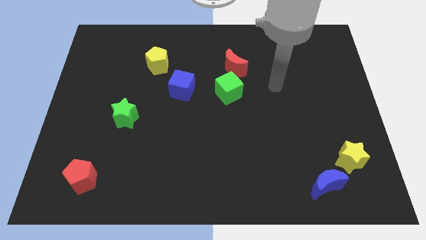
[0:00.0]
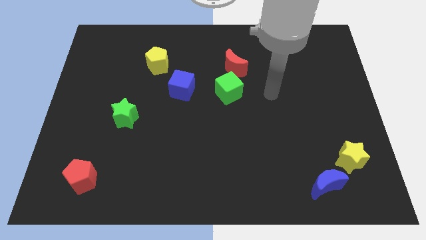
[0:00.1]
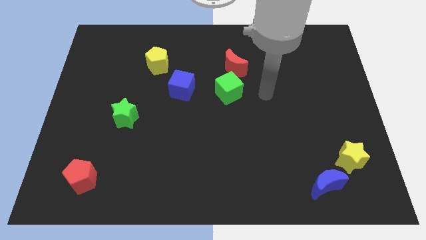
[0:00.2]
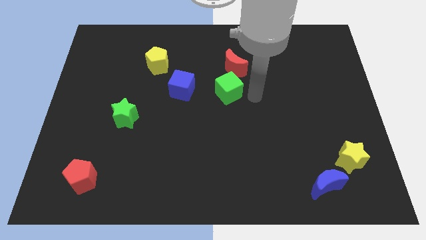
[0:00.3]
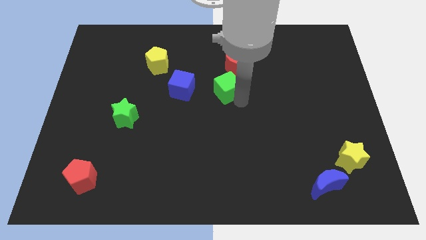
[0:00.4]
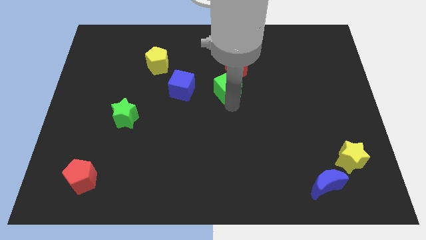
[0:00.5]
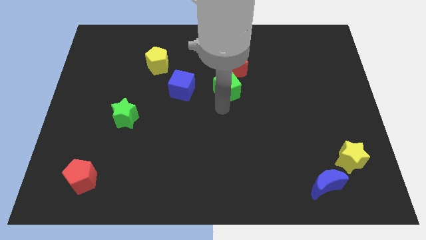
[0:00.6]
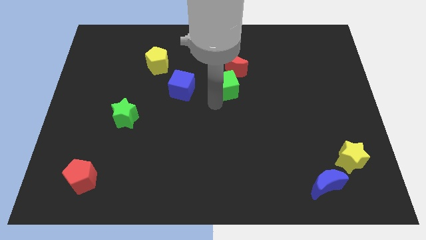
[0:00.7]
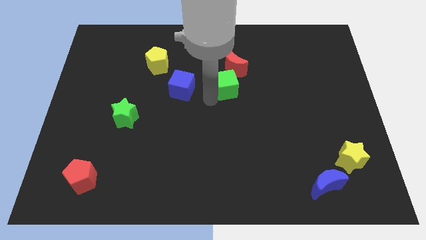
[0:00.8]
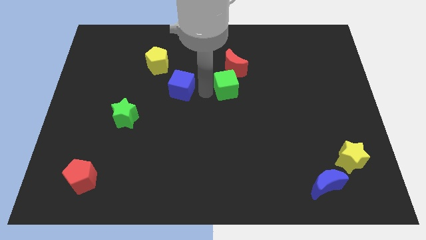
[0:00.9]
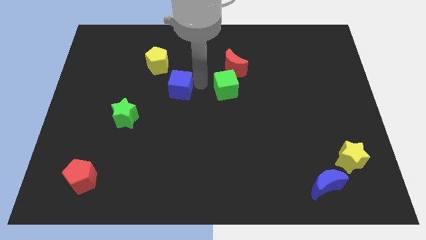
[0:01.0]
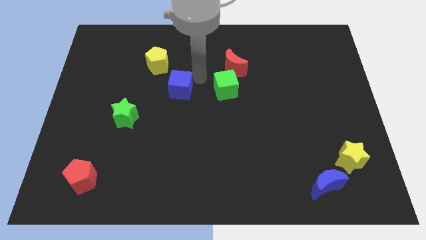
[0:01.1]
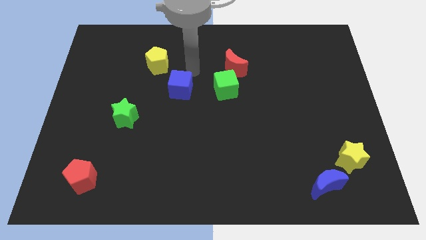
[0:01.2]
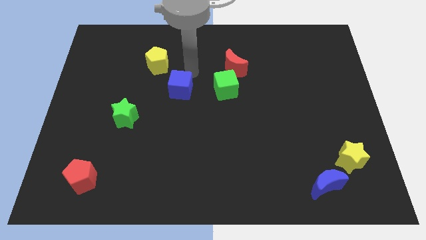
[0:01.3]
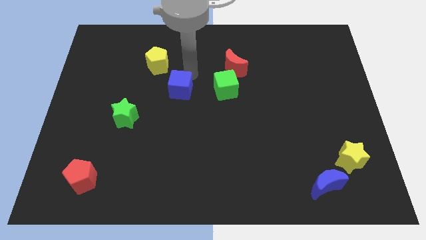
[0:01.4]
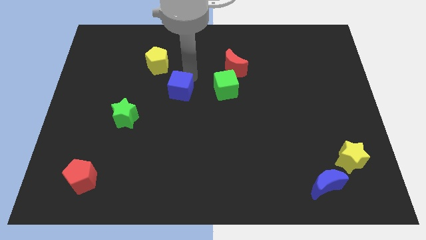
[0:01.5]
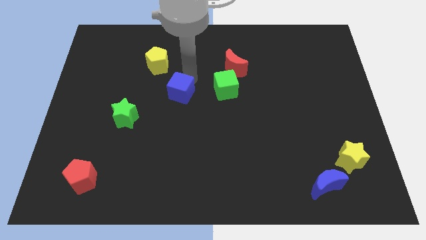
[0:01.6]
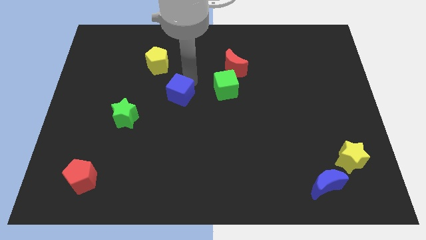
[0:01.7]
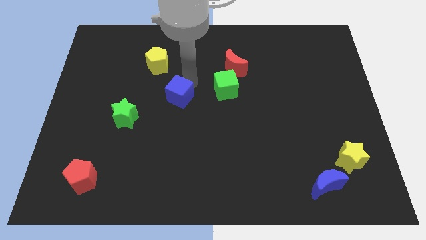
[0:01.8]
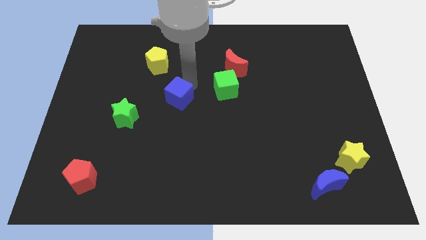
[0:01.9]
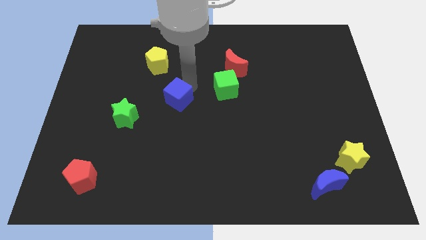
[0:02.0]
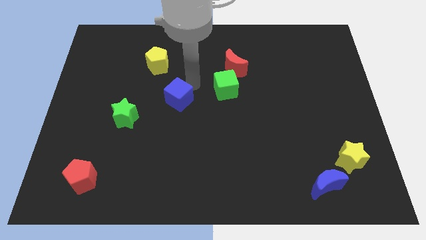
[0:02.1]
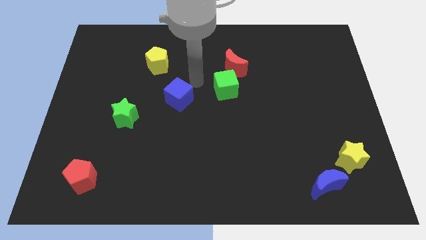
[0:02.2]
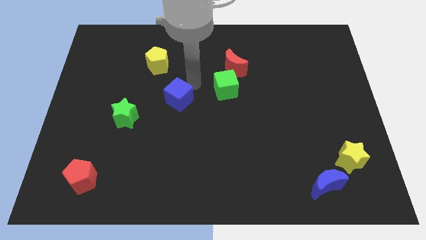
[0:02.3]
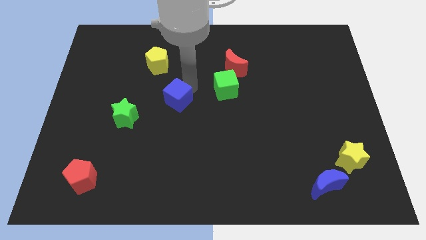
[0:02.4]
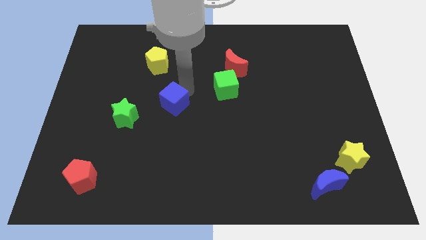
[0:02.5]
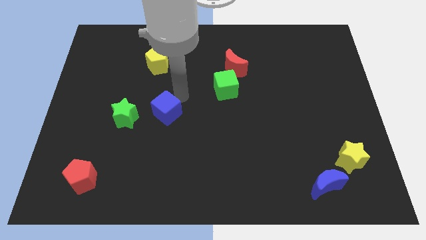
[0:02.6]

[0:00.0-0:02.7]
push the blue cube downwards and to the left slightly

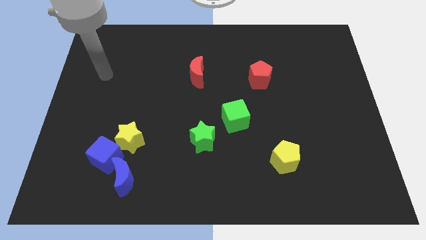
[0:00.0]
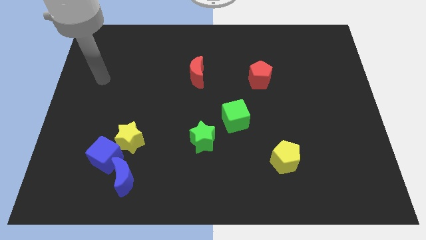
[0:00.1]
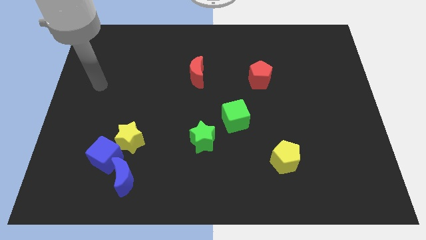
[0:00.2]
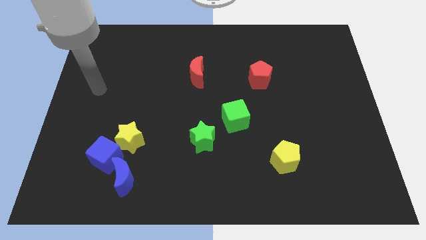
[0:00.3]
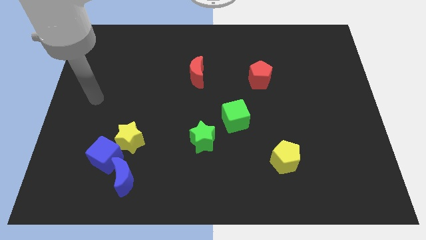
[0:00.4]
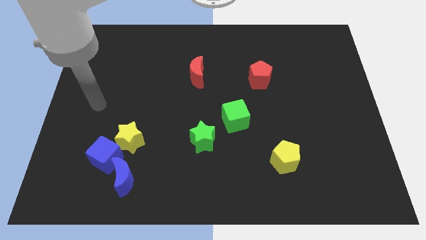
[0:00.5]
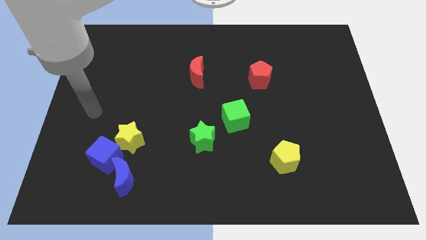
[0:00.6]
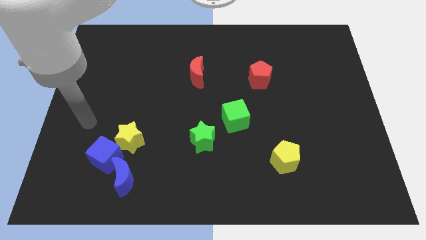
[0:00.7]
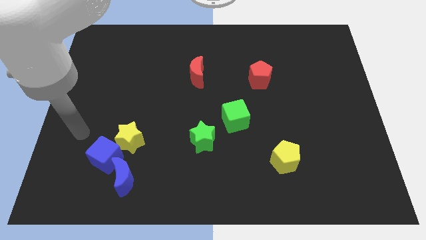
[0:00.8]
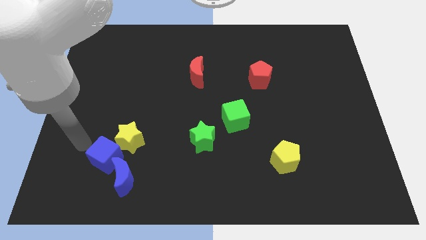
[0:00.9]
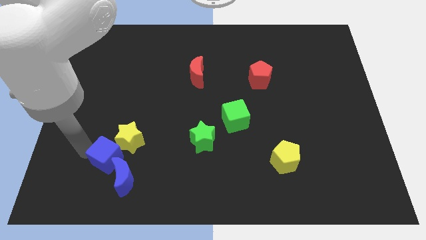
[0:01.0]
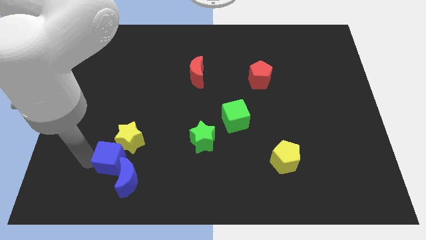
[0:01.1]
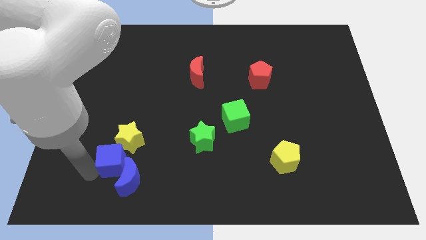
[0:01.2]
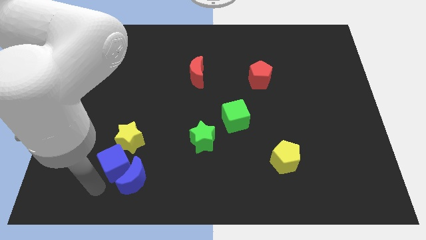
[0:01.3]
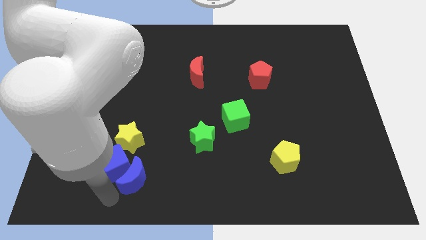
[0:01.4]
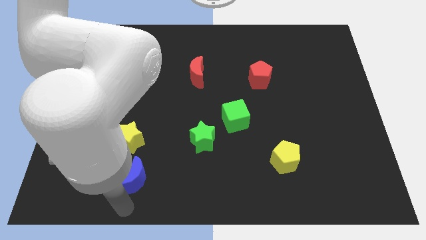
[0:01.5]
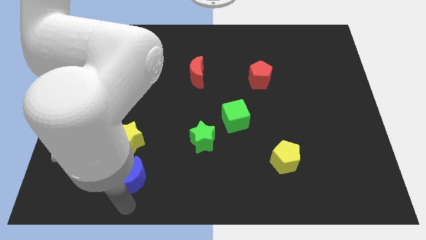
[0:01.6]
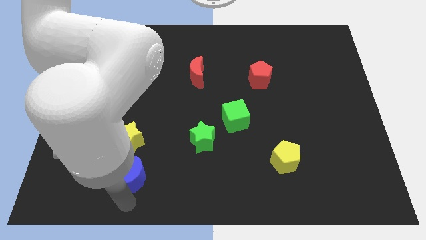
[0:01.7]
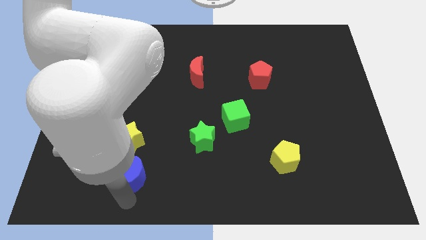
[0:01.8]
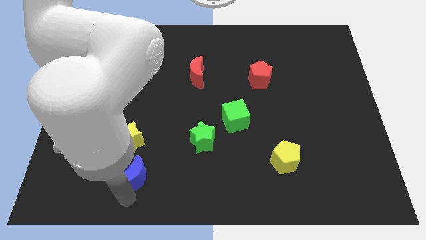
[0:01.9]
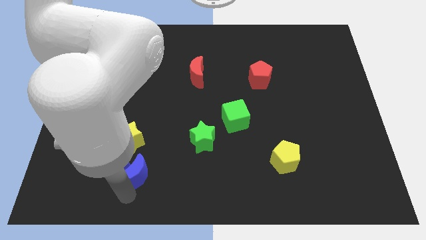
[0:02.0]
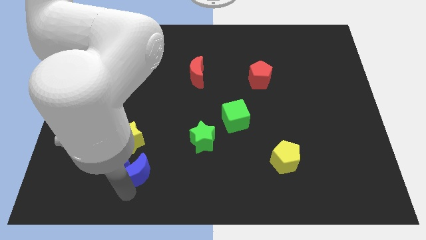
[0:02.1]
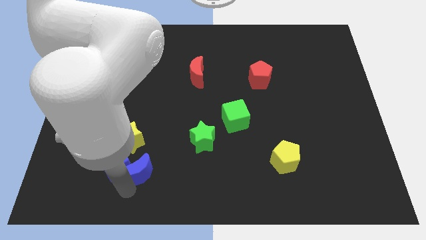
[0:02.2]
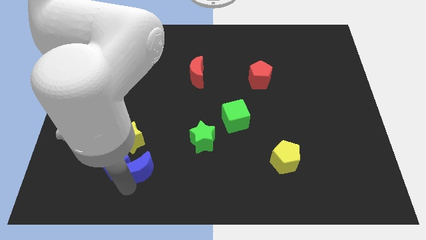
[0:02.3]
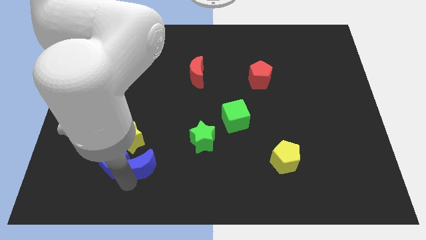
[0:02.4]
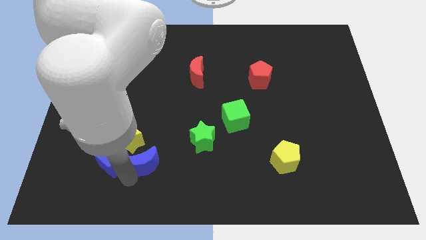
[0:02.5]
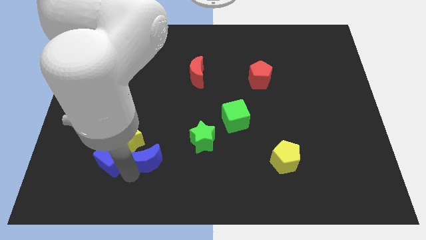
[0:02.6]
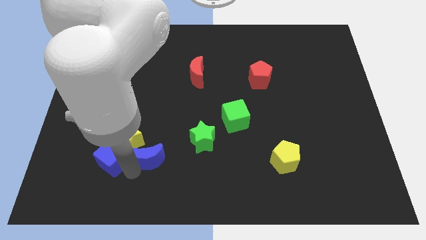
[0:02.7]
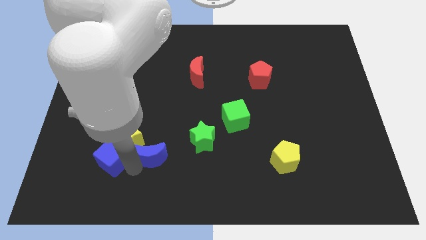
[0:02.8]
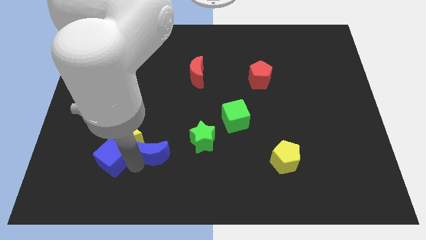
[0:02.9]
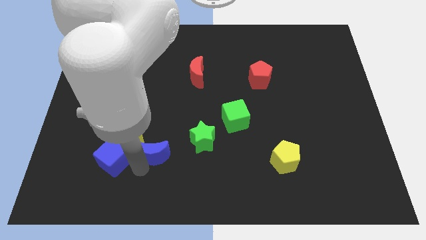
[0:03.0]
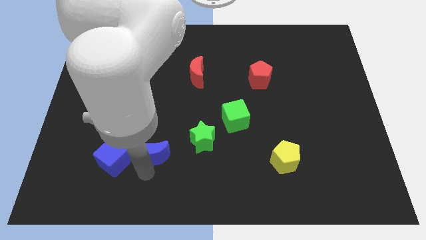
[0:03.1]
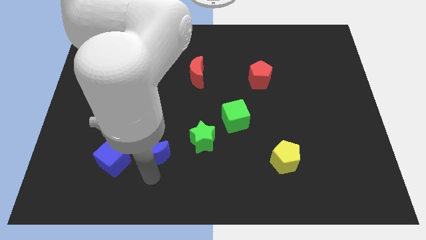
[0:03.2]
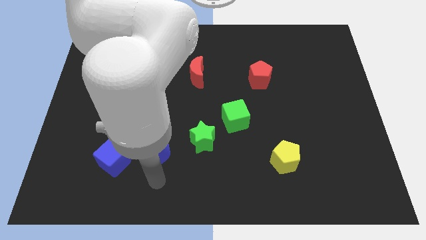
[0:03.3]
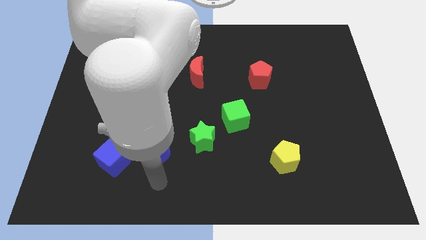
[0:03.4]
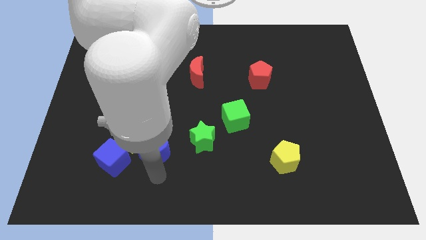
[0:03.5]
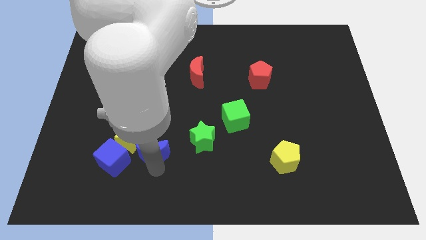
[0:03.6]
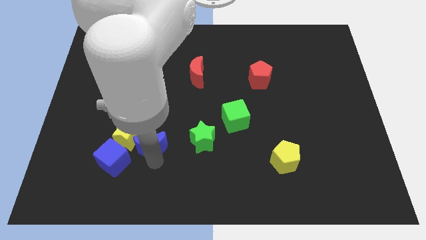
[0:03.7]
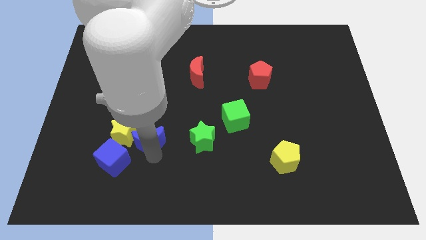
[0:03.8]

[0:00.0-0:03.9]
push the blue moon up slightly

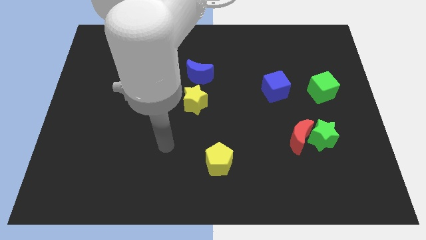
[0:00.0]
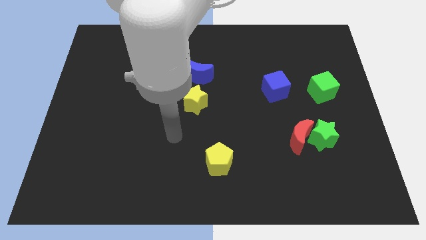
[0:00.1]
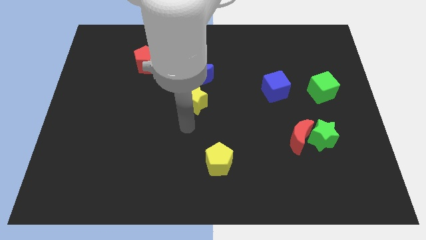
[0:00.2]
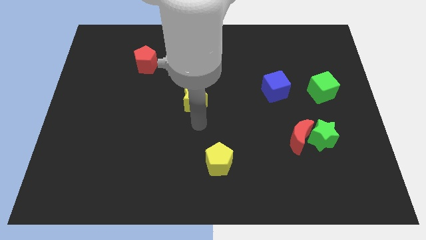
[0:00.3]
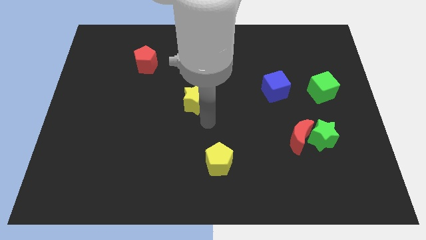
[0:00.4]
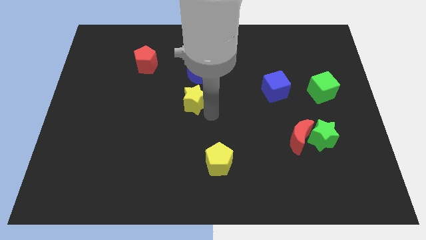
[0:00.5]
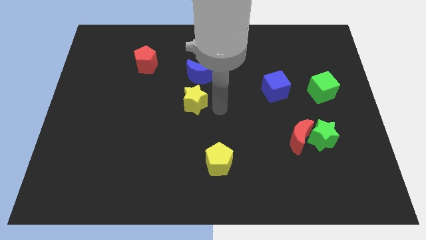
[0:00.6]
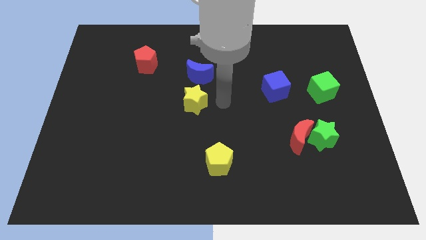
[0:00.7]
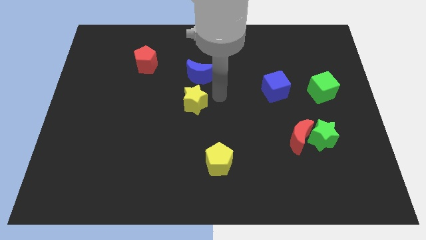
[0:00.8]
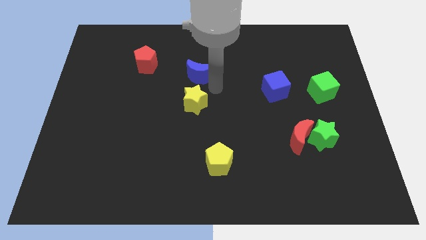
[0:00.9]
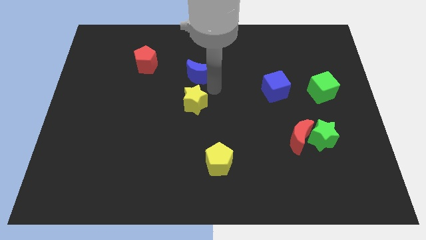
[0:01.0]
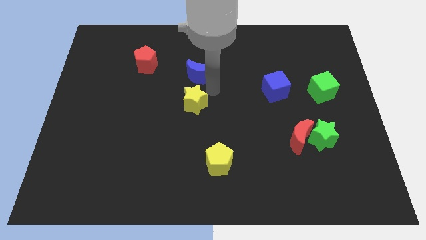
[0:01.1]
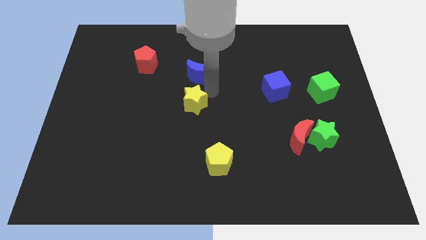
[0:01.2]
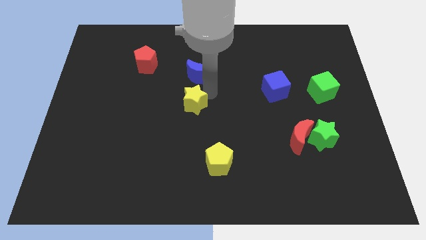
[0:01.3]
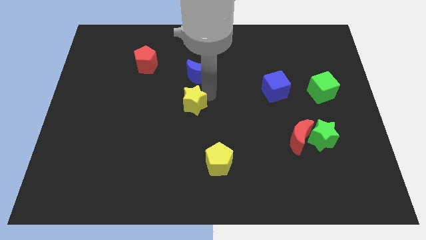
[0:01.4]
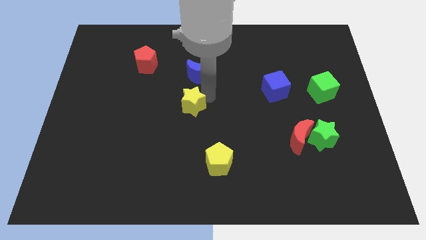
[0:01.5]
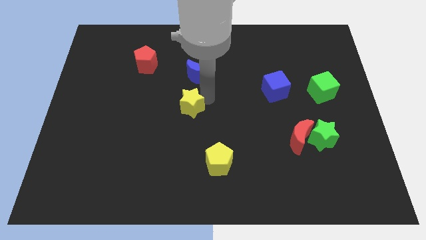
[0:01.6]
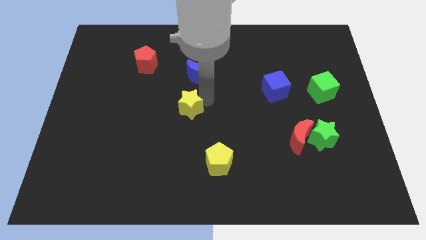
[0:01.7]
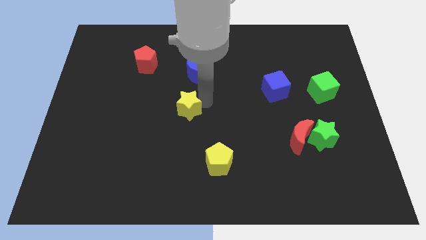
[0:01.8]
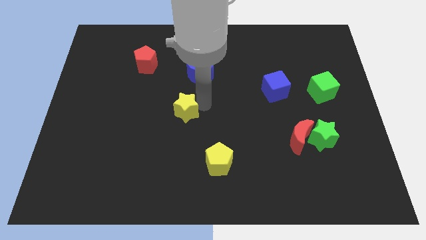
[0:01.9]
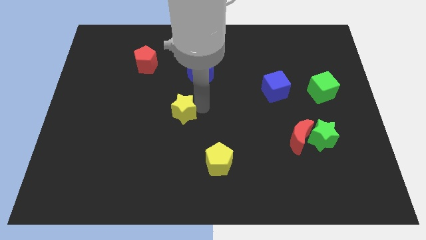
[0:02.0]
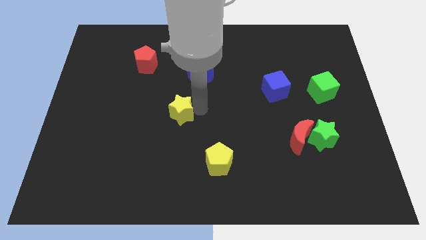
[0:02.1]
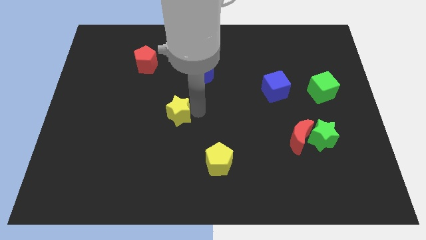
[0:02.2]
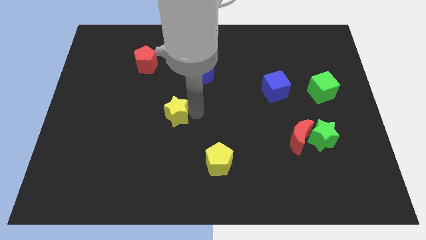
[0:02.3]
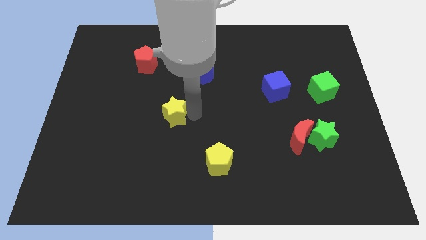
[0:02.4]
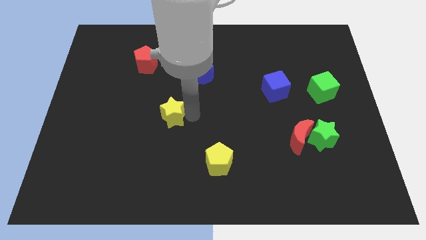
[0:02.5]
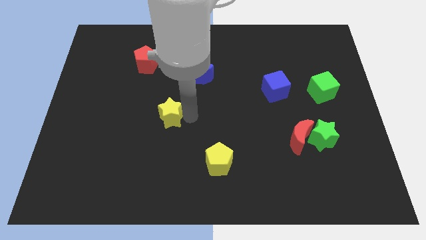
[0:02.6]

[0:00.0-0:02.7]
slightly move the yellow star diagonally downwards and left
